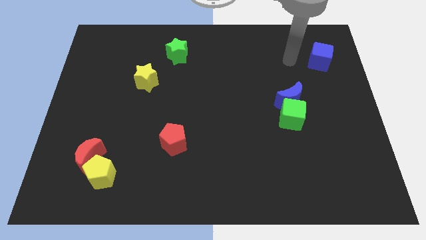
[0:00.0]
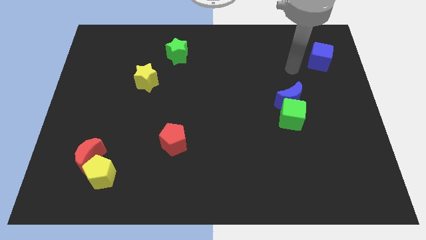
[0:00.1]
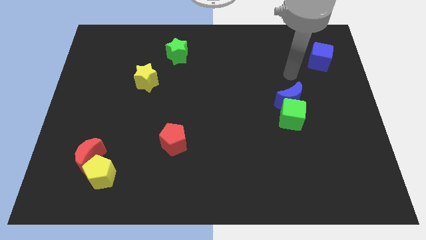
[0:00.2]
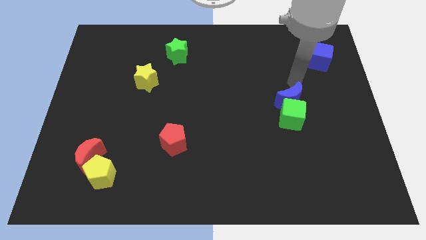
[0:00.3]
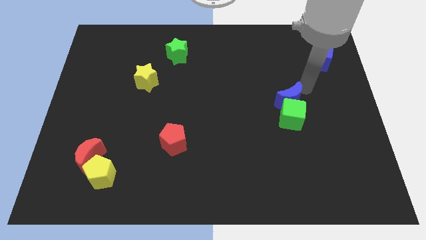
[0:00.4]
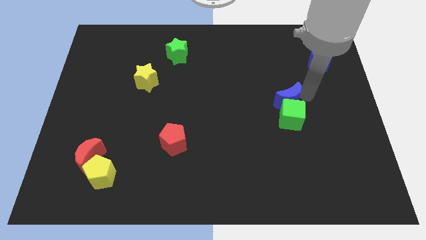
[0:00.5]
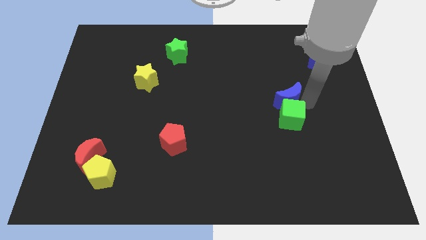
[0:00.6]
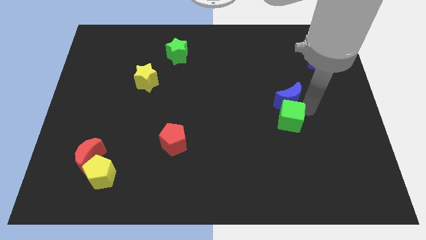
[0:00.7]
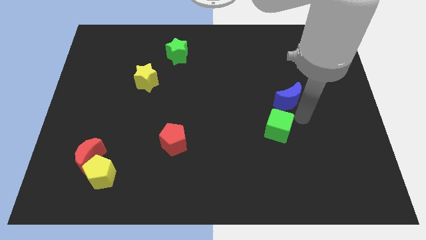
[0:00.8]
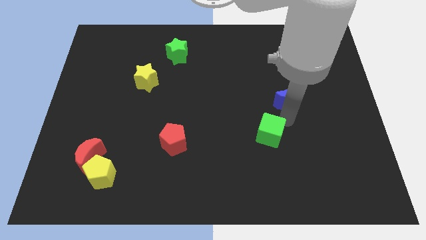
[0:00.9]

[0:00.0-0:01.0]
separate the blue moon from the green cube

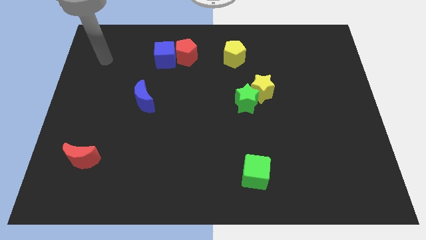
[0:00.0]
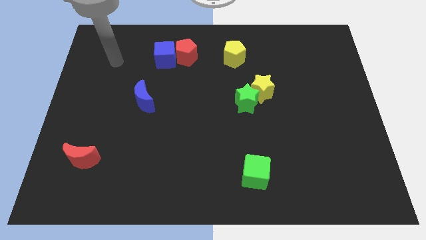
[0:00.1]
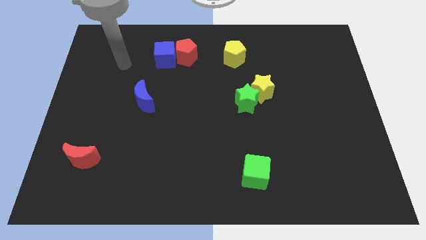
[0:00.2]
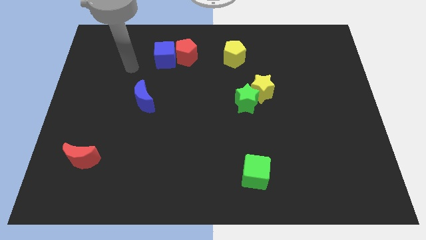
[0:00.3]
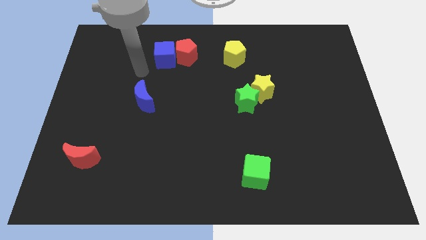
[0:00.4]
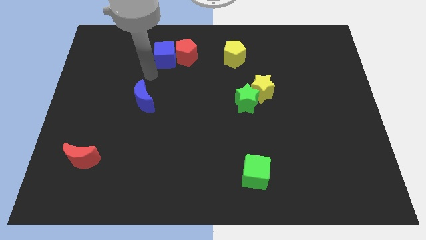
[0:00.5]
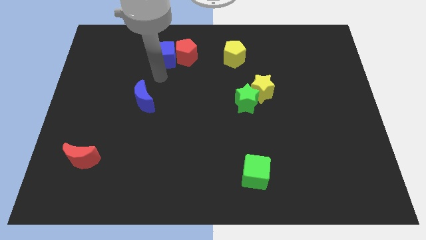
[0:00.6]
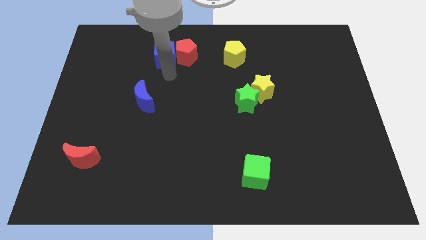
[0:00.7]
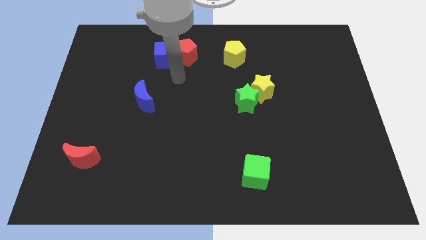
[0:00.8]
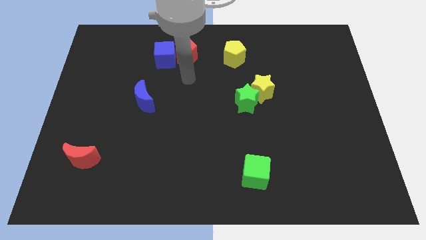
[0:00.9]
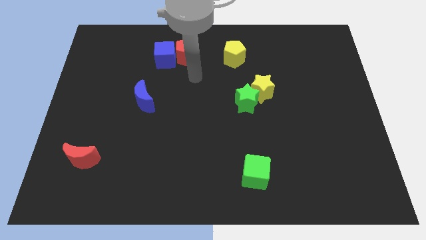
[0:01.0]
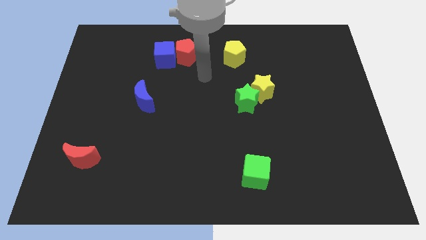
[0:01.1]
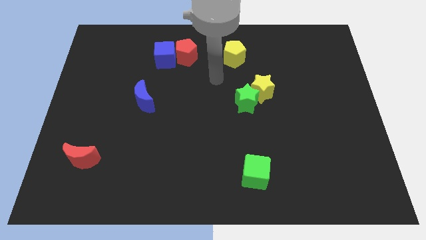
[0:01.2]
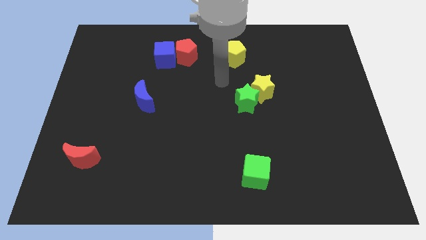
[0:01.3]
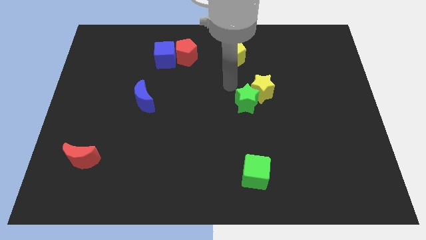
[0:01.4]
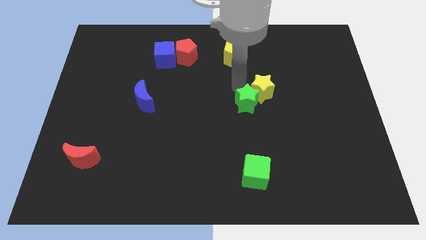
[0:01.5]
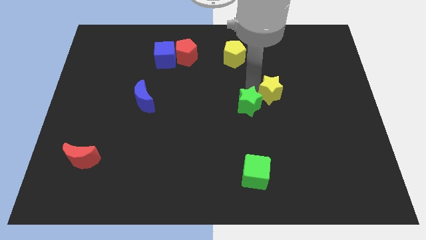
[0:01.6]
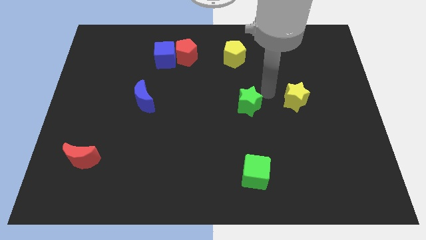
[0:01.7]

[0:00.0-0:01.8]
pull the green star apart from the yellow star

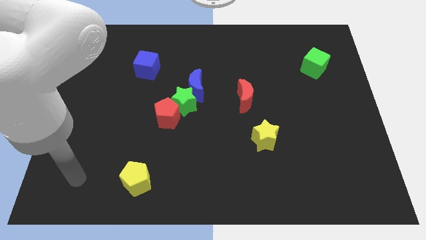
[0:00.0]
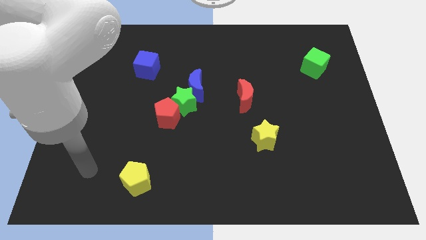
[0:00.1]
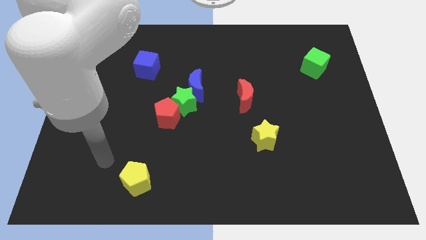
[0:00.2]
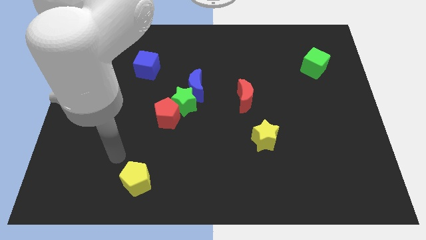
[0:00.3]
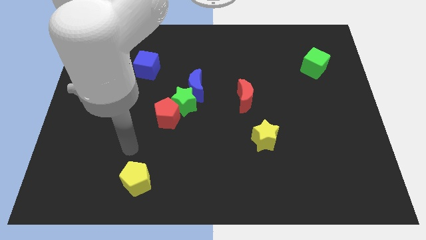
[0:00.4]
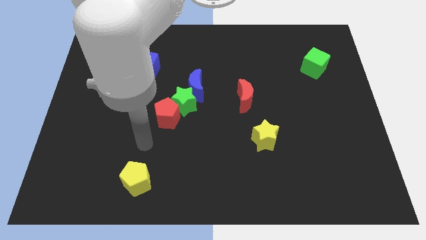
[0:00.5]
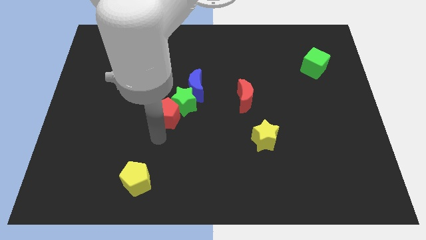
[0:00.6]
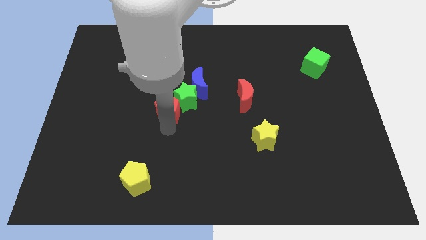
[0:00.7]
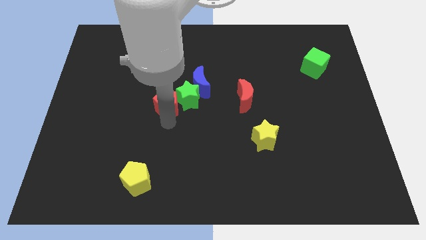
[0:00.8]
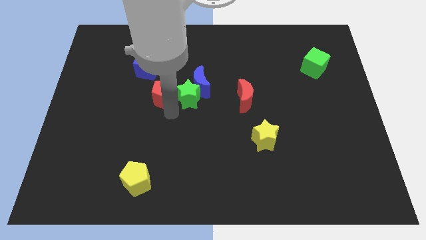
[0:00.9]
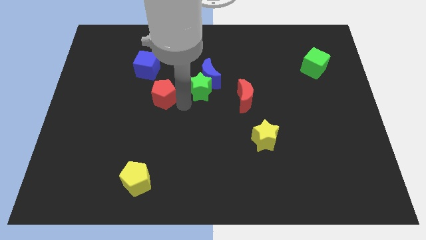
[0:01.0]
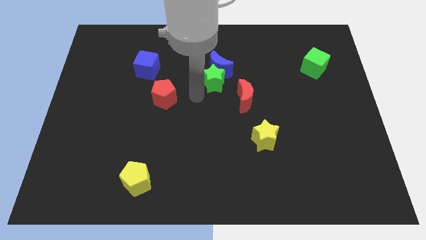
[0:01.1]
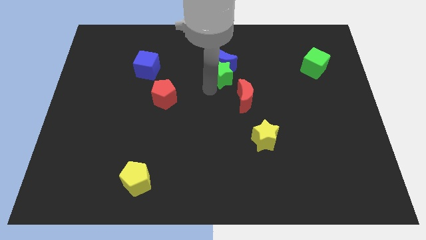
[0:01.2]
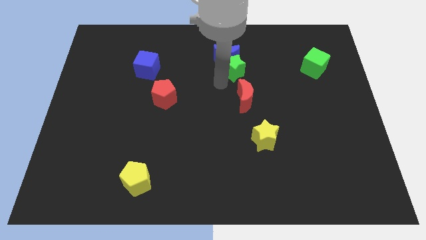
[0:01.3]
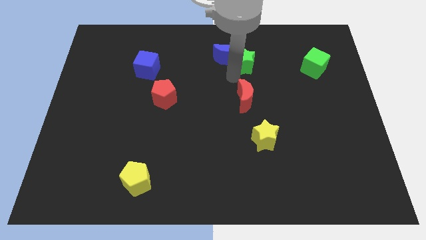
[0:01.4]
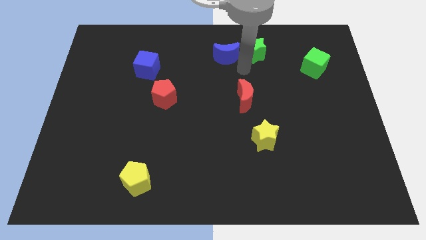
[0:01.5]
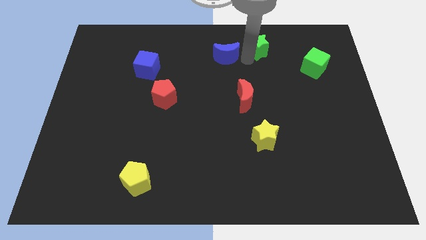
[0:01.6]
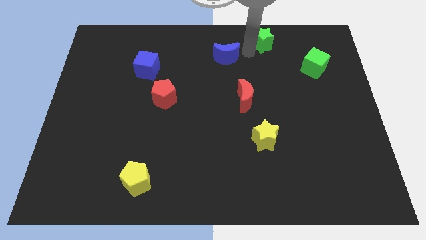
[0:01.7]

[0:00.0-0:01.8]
pull the blue moon apart from the green star

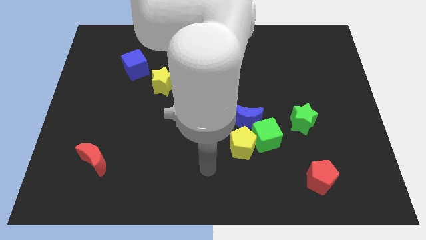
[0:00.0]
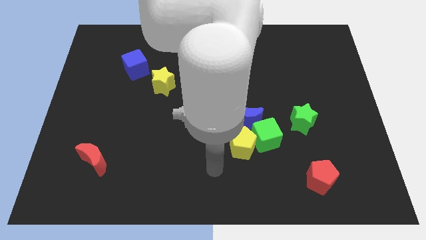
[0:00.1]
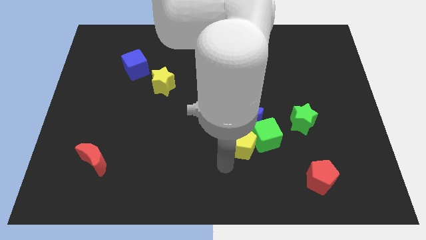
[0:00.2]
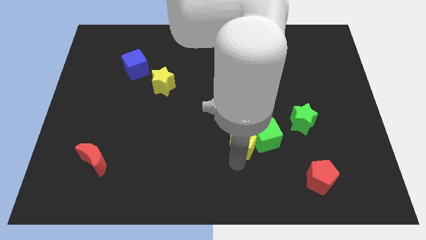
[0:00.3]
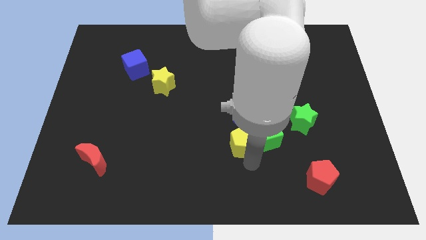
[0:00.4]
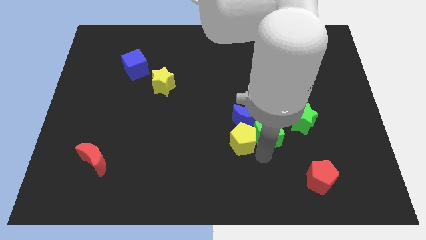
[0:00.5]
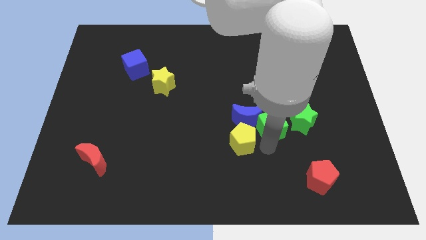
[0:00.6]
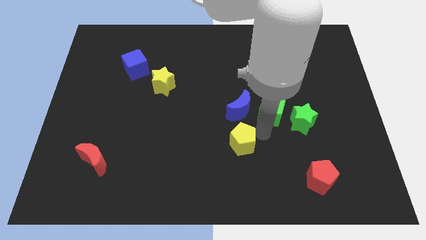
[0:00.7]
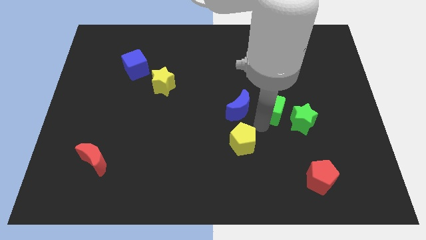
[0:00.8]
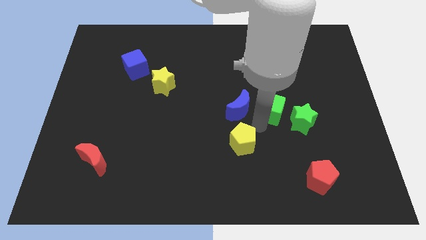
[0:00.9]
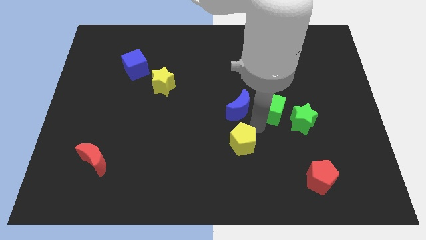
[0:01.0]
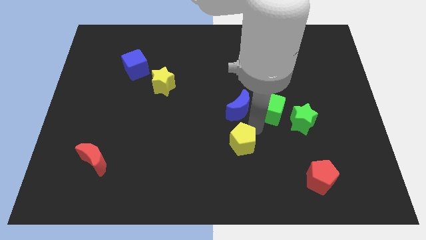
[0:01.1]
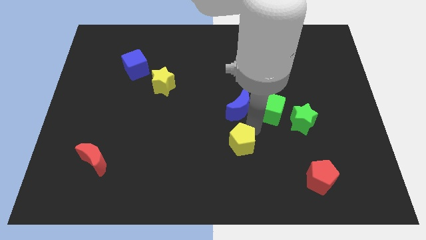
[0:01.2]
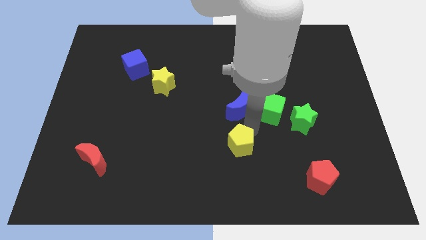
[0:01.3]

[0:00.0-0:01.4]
move the yellow pentagon away from the green cube and blue moon

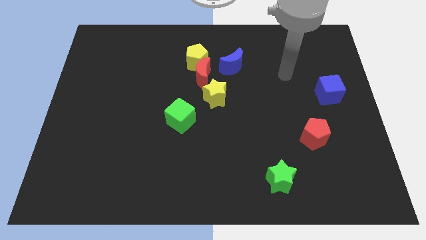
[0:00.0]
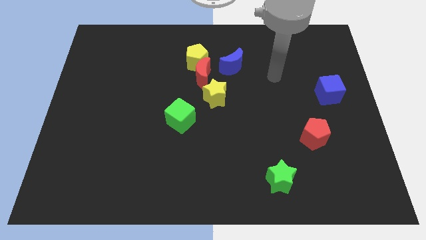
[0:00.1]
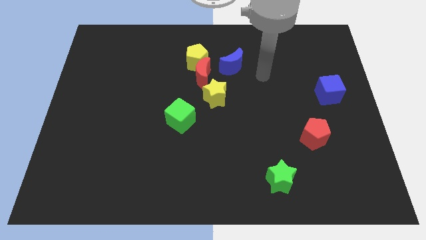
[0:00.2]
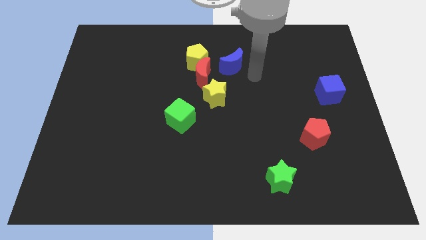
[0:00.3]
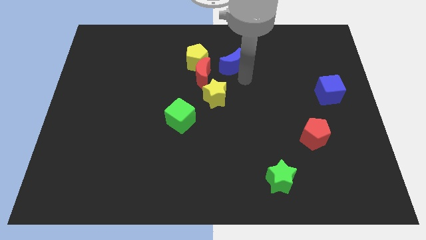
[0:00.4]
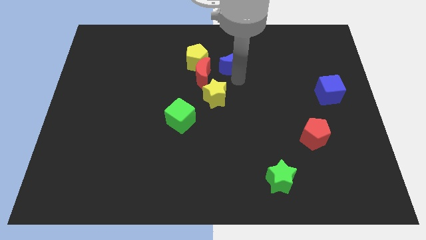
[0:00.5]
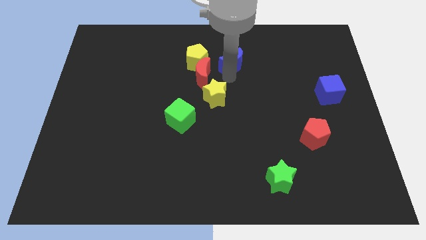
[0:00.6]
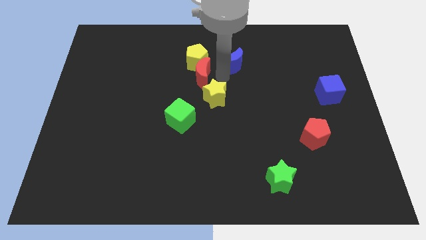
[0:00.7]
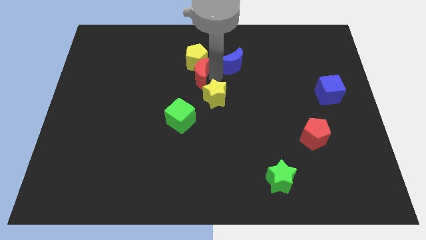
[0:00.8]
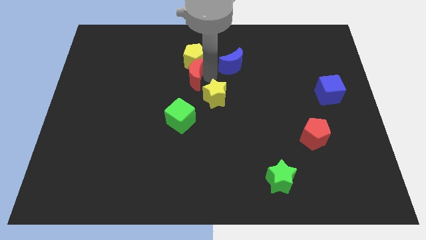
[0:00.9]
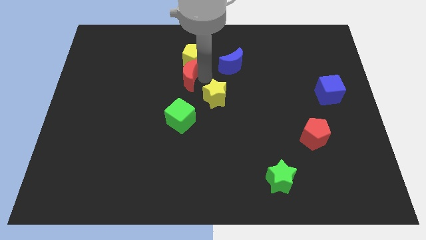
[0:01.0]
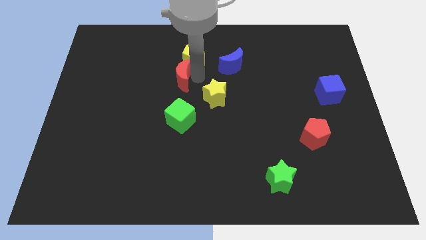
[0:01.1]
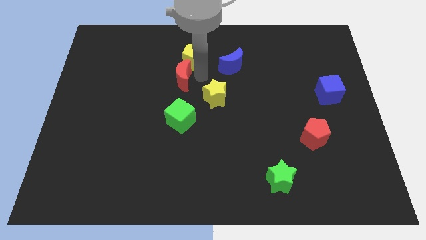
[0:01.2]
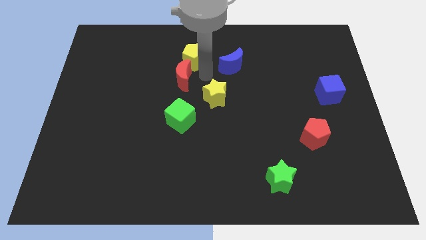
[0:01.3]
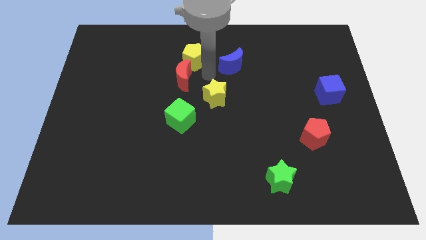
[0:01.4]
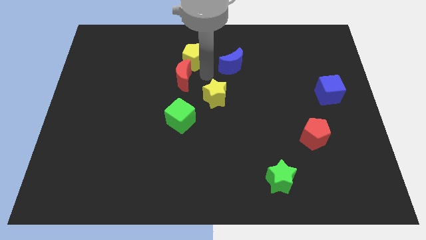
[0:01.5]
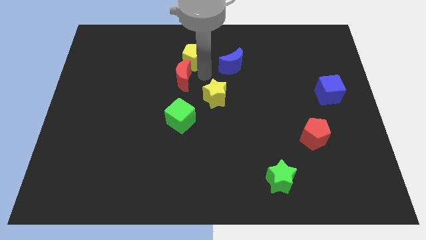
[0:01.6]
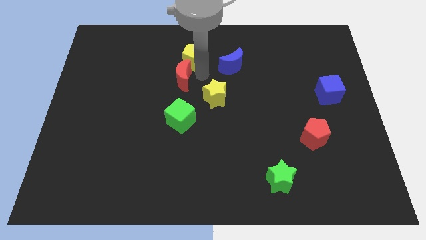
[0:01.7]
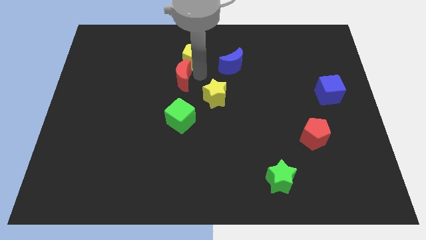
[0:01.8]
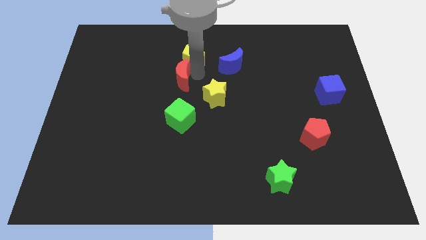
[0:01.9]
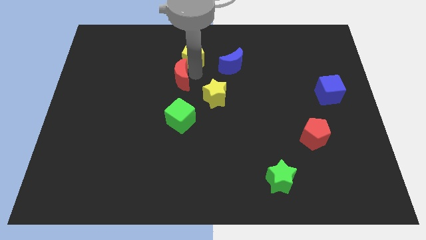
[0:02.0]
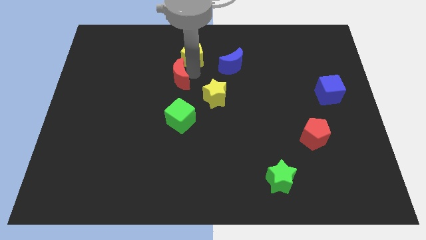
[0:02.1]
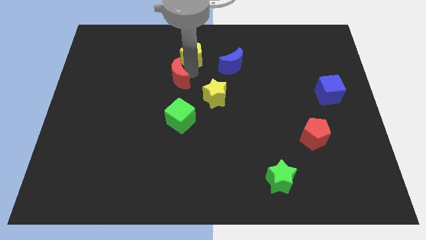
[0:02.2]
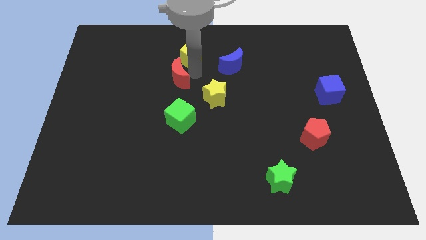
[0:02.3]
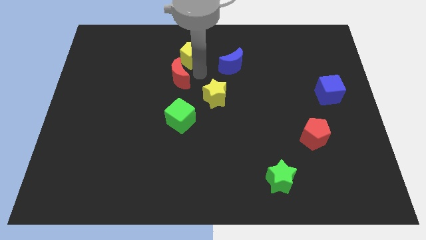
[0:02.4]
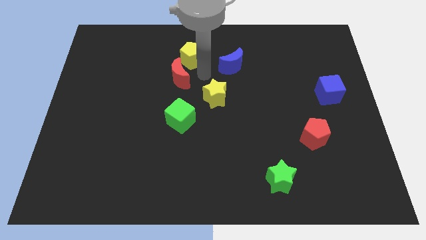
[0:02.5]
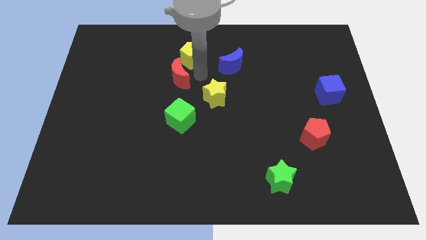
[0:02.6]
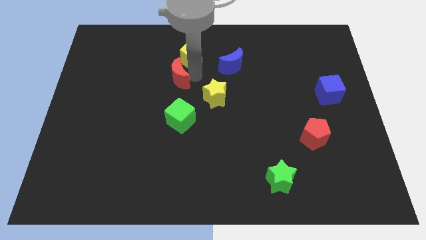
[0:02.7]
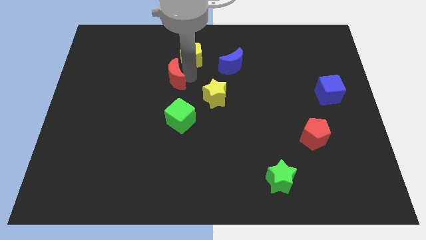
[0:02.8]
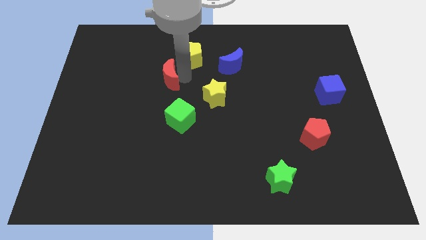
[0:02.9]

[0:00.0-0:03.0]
separate the red moon from the yellow pentagon, yellow star, and blue moon

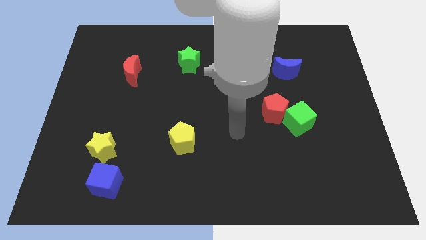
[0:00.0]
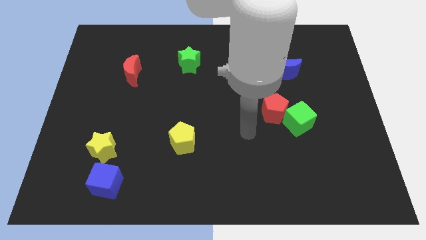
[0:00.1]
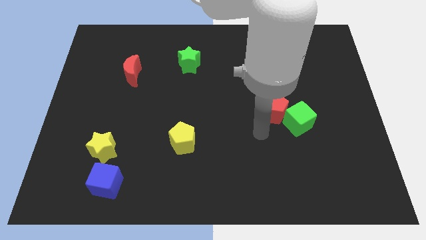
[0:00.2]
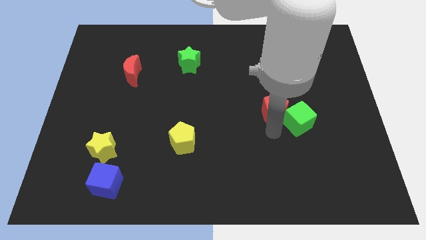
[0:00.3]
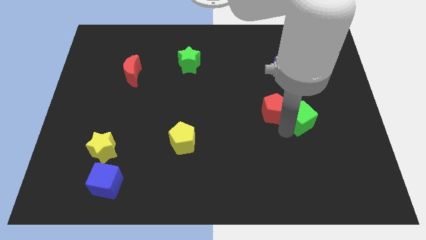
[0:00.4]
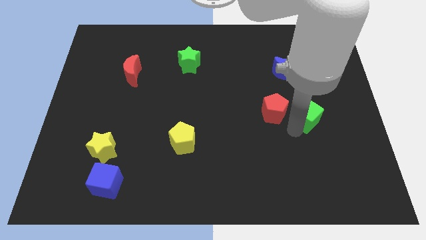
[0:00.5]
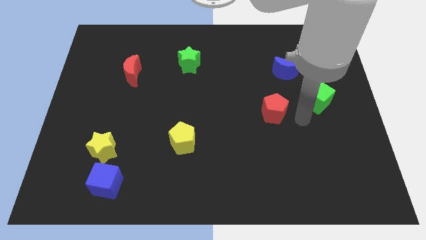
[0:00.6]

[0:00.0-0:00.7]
separate the red pentagon from the green cube
